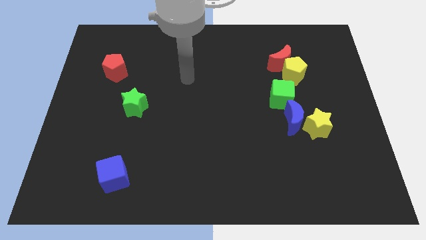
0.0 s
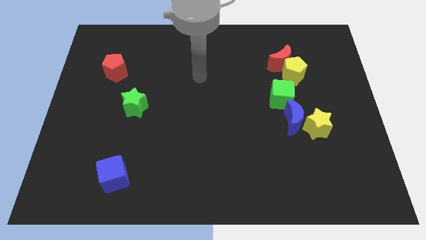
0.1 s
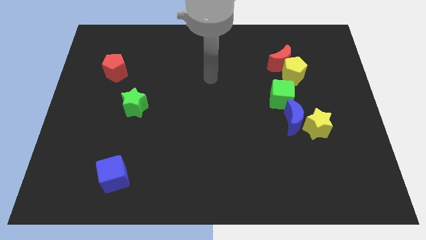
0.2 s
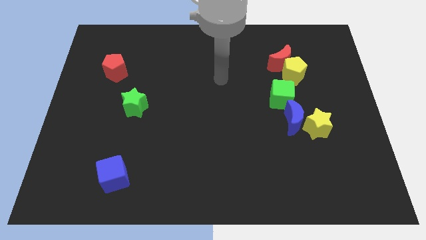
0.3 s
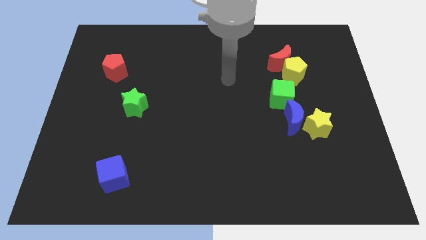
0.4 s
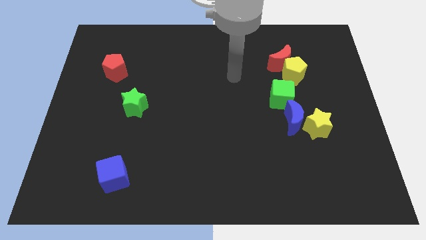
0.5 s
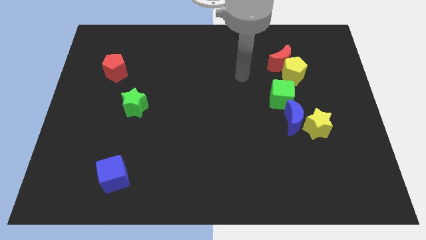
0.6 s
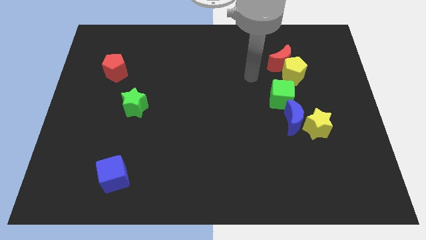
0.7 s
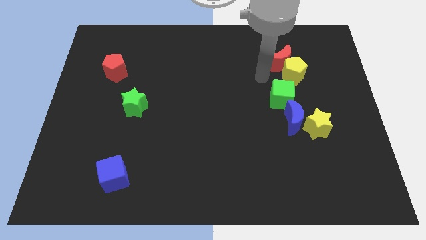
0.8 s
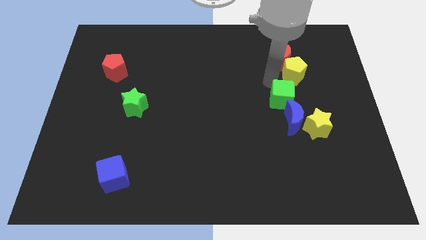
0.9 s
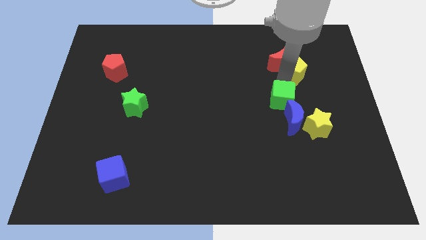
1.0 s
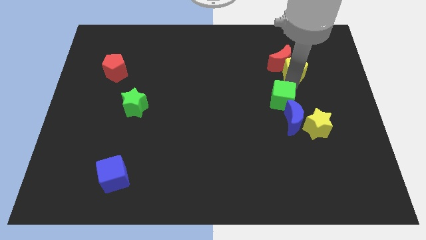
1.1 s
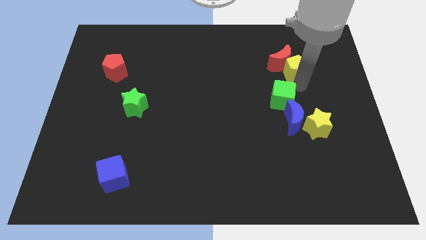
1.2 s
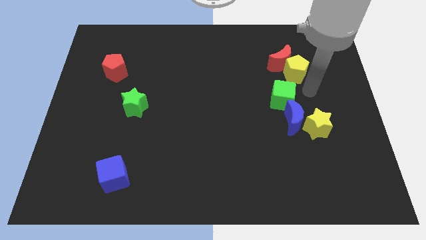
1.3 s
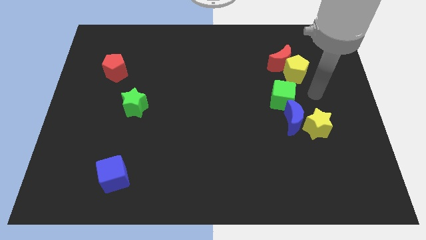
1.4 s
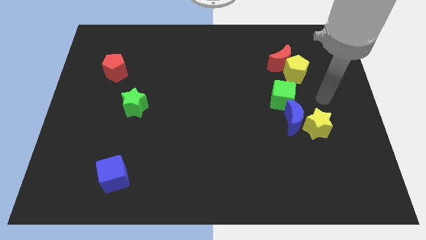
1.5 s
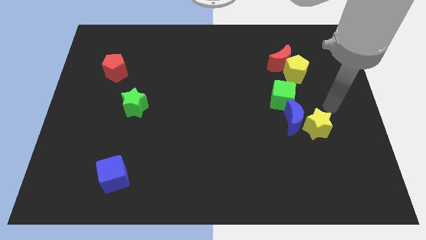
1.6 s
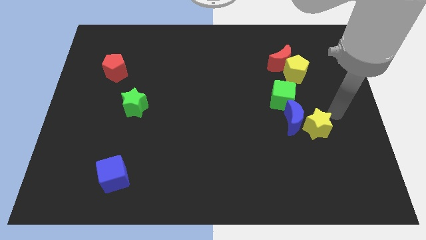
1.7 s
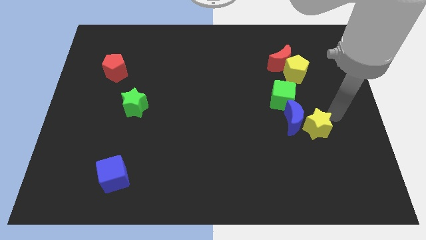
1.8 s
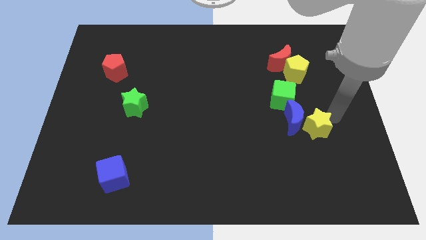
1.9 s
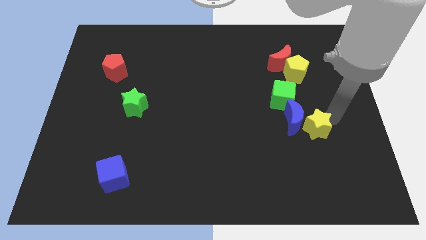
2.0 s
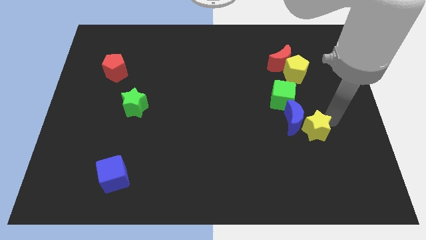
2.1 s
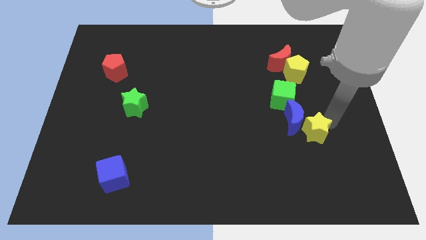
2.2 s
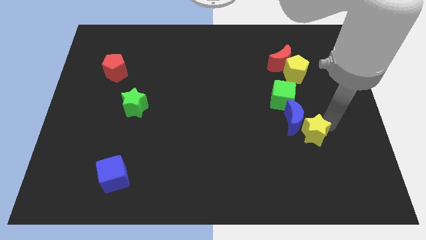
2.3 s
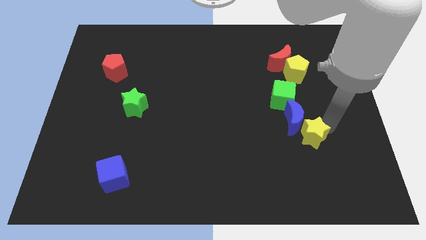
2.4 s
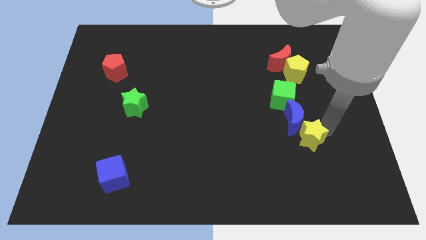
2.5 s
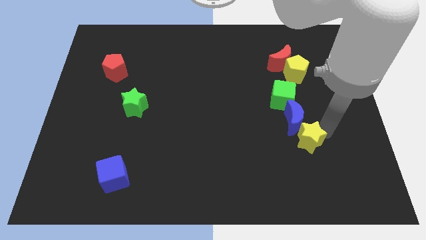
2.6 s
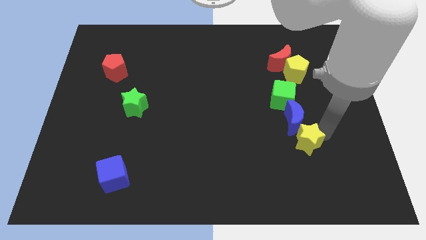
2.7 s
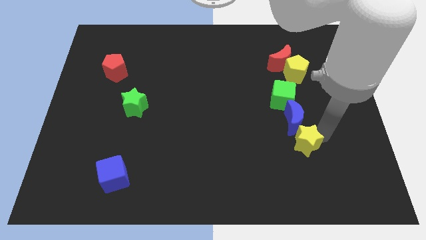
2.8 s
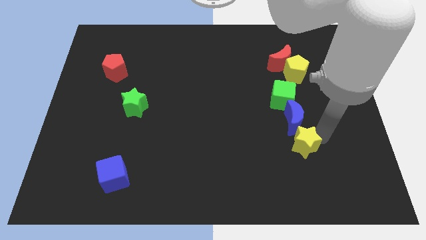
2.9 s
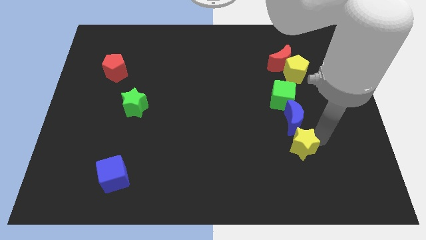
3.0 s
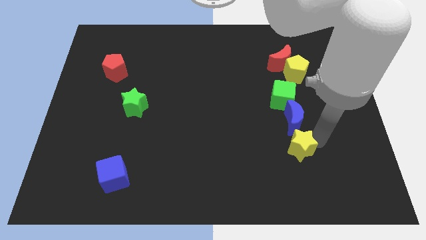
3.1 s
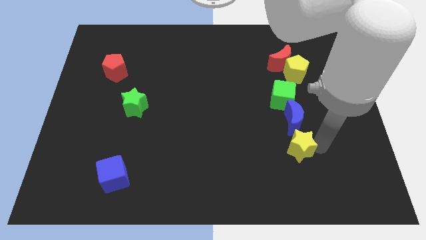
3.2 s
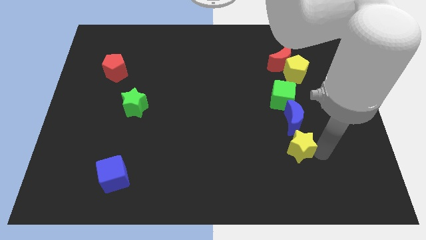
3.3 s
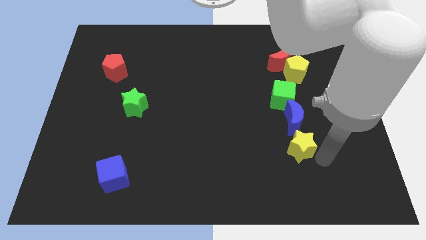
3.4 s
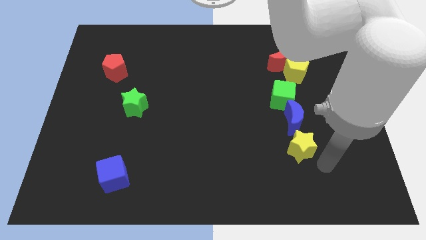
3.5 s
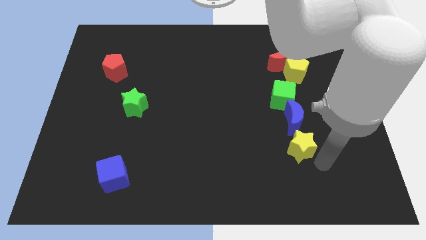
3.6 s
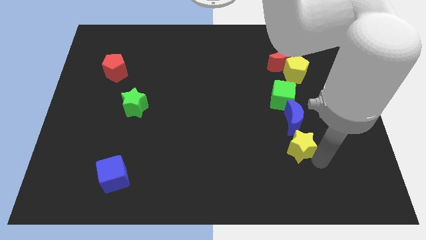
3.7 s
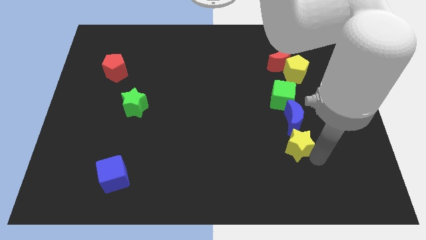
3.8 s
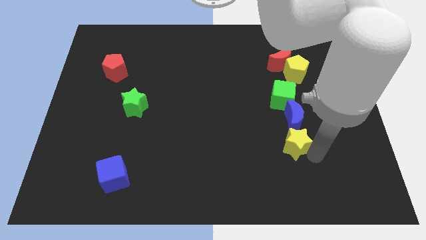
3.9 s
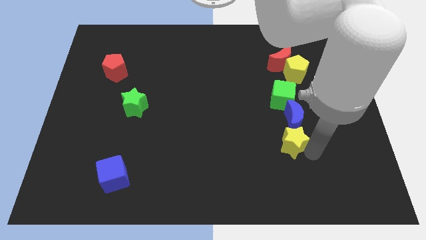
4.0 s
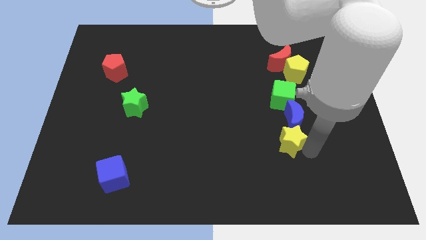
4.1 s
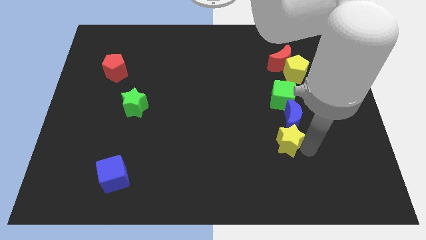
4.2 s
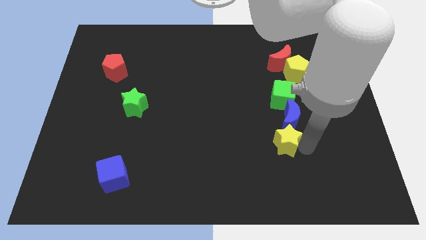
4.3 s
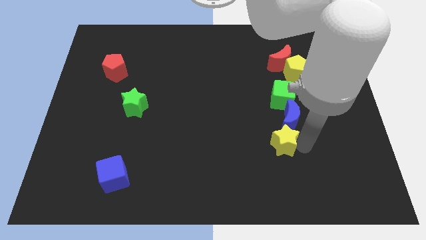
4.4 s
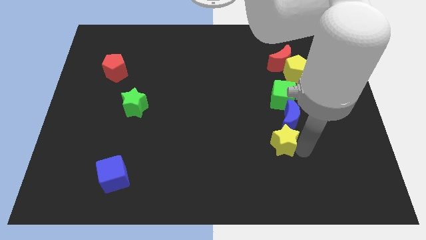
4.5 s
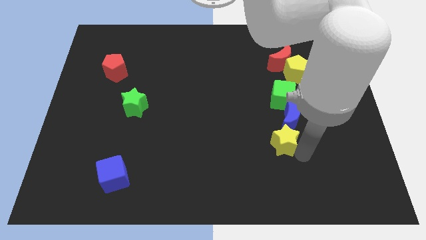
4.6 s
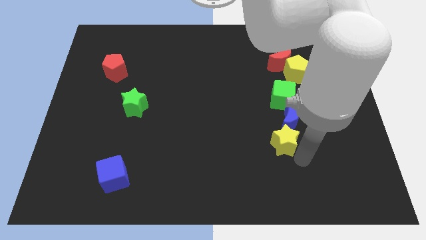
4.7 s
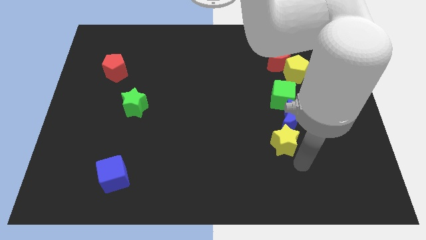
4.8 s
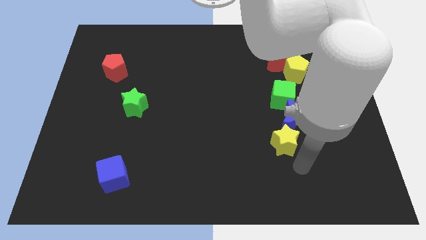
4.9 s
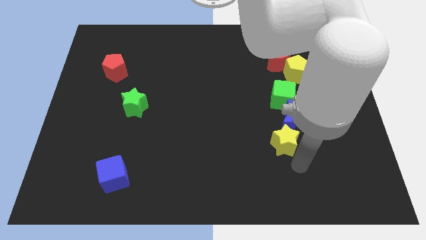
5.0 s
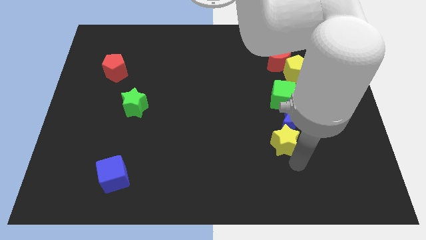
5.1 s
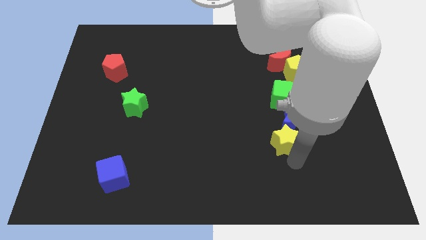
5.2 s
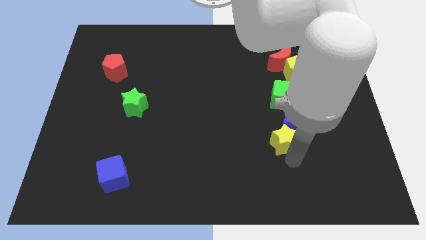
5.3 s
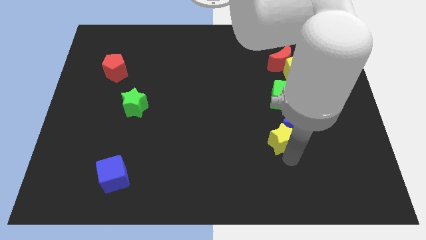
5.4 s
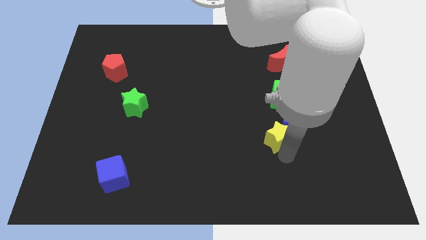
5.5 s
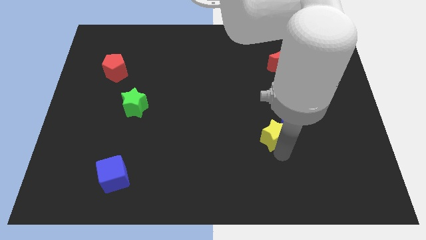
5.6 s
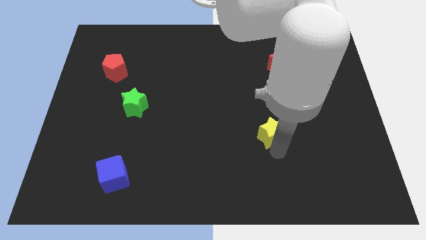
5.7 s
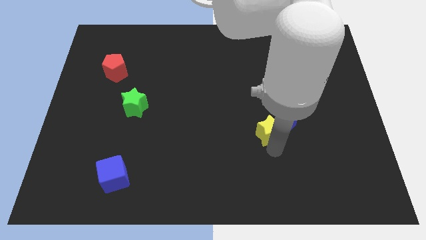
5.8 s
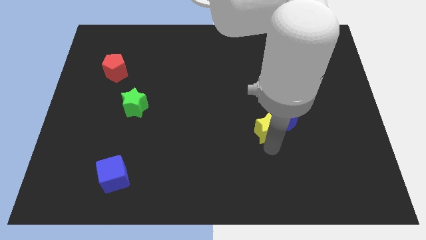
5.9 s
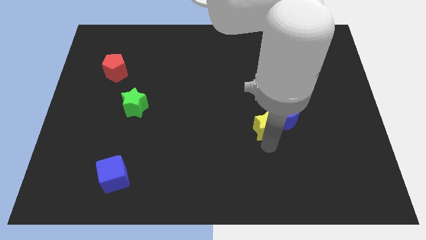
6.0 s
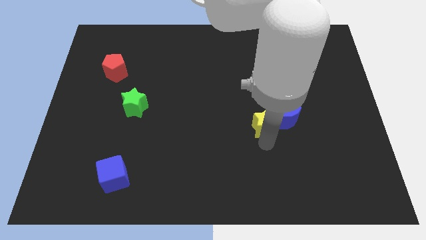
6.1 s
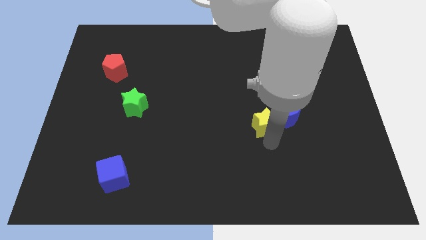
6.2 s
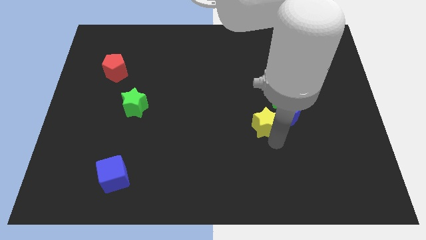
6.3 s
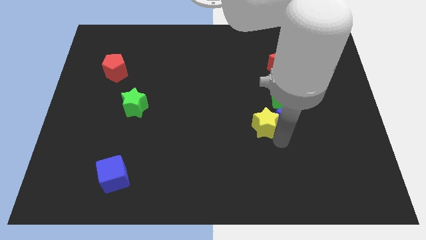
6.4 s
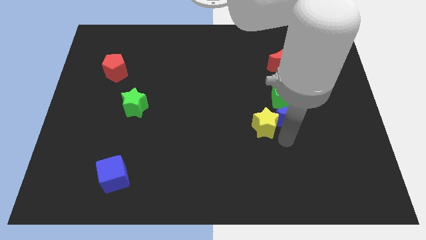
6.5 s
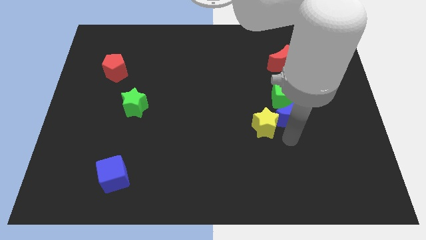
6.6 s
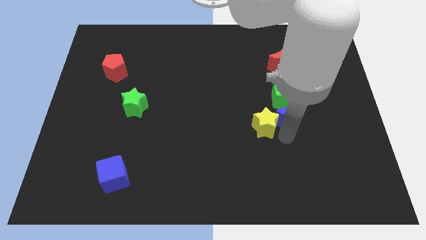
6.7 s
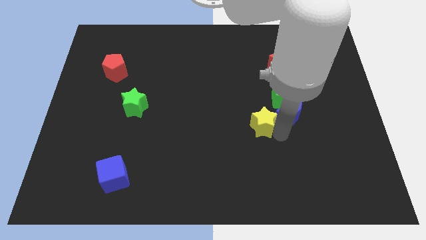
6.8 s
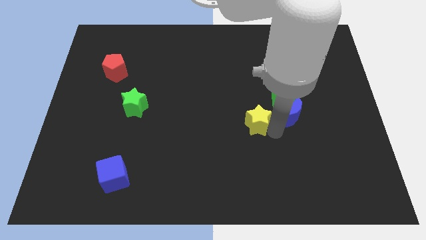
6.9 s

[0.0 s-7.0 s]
slide the yellow star to the center of the board

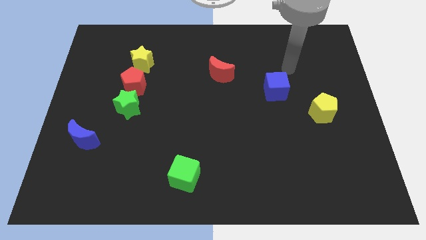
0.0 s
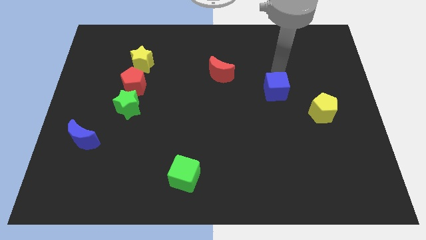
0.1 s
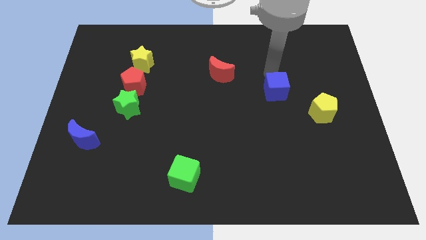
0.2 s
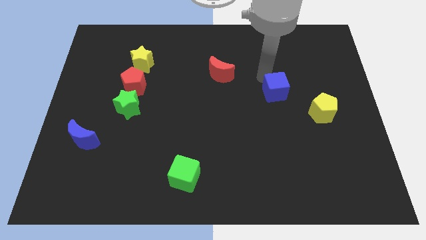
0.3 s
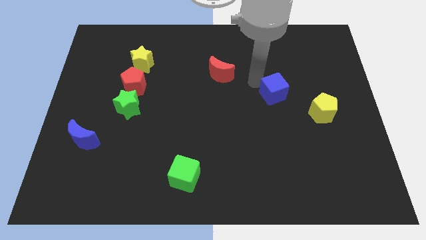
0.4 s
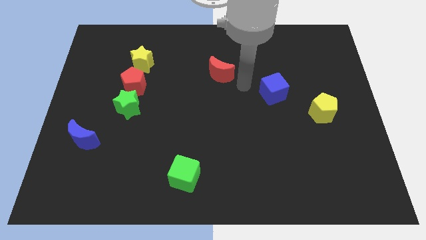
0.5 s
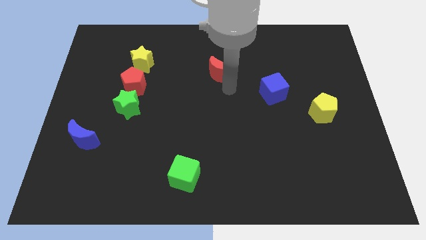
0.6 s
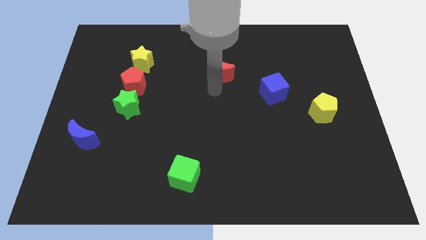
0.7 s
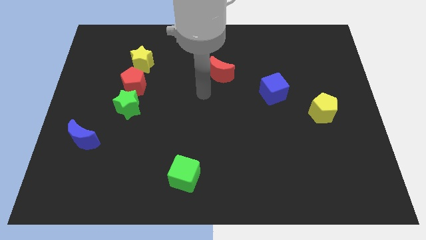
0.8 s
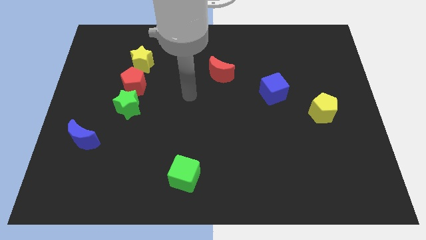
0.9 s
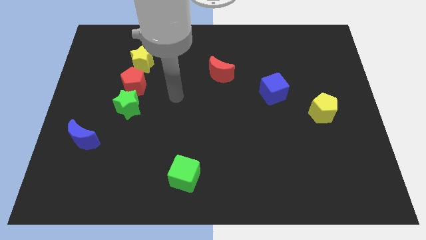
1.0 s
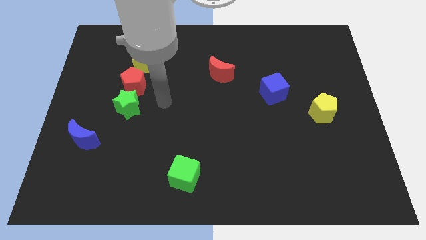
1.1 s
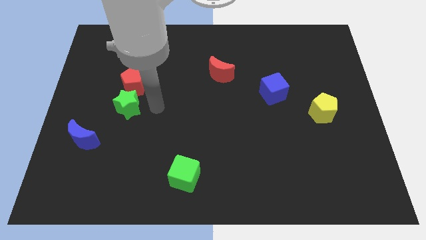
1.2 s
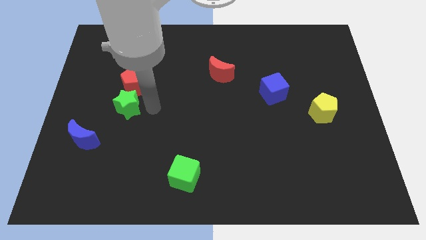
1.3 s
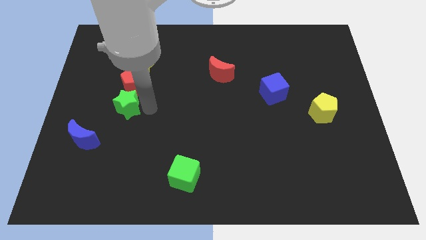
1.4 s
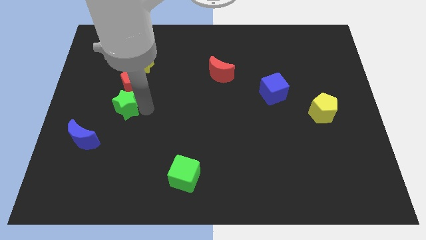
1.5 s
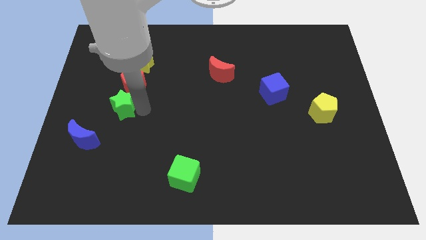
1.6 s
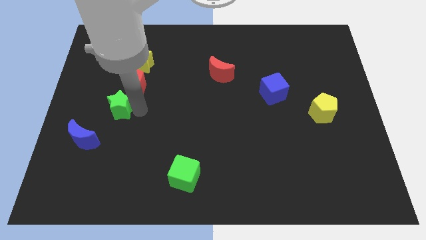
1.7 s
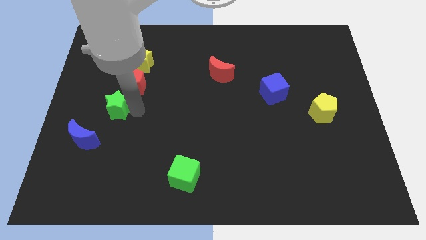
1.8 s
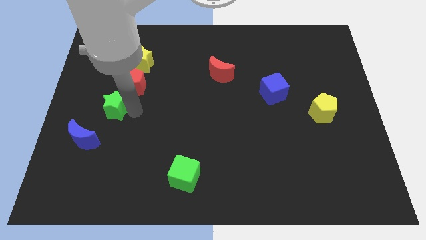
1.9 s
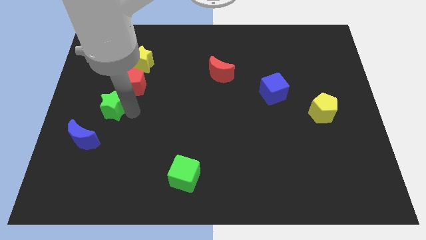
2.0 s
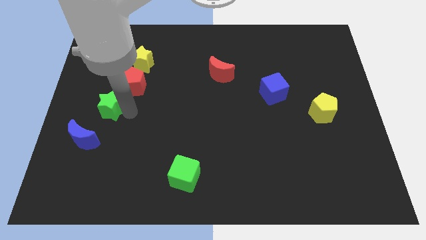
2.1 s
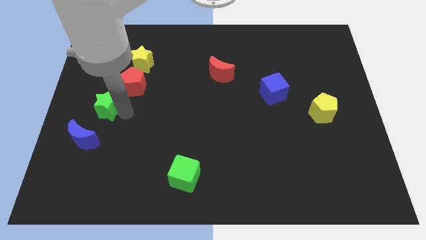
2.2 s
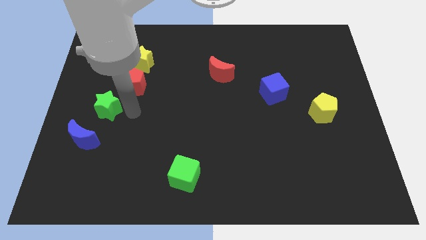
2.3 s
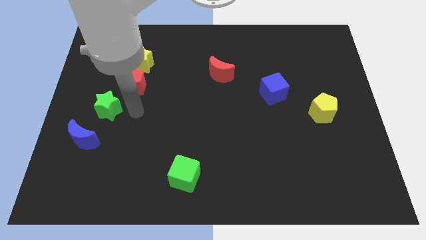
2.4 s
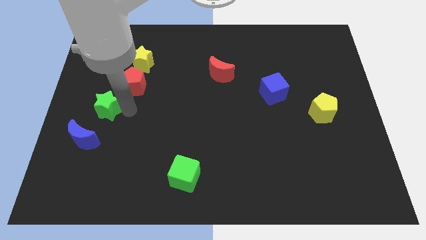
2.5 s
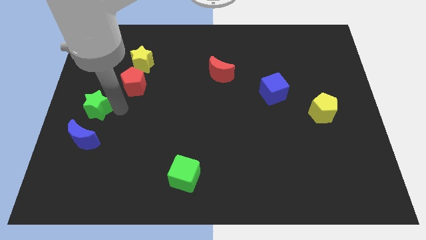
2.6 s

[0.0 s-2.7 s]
put the green star to the center left
